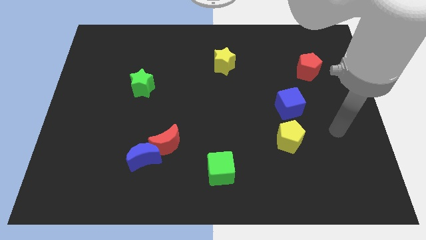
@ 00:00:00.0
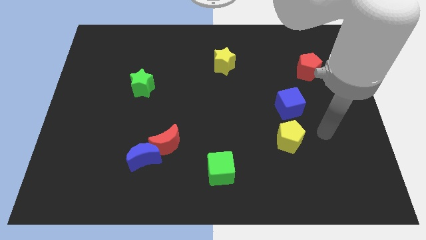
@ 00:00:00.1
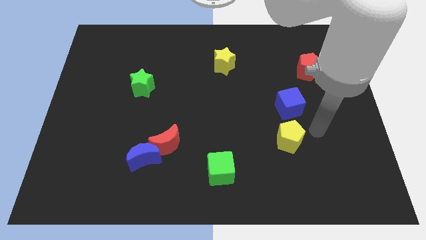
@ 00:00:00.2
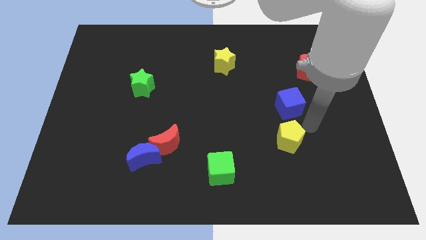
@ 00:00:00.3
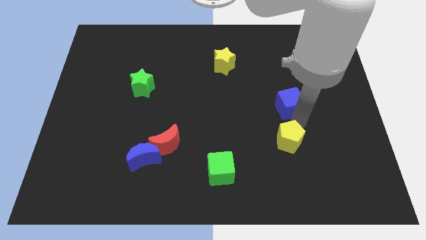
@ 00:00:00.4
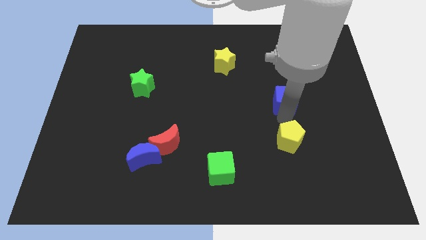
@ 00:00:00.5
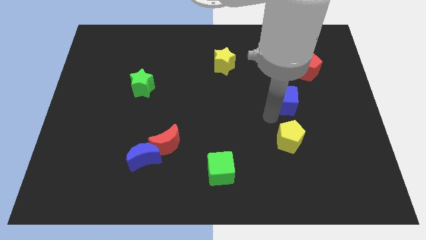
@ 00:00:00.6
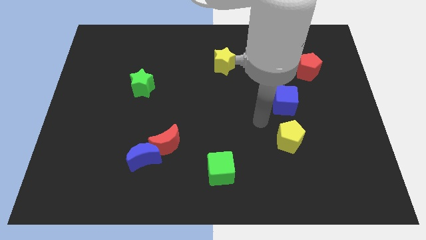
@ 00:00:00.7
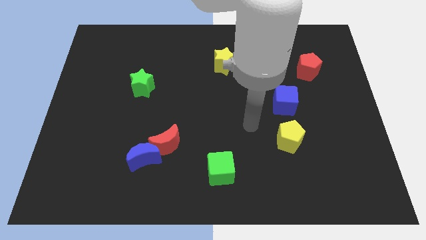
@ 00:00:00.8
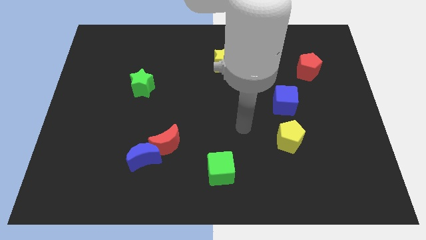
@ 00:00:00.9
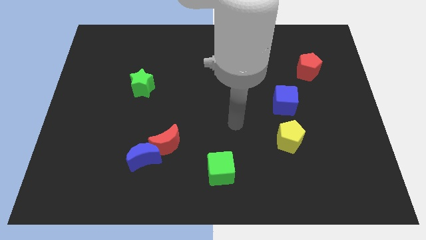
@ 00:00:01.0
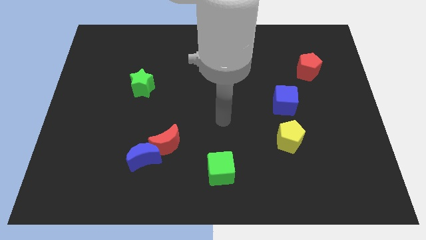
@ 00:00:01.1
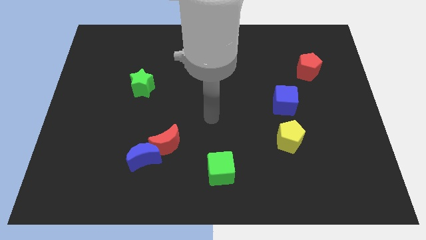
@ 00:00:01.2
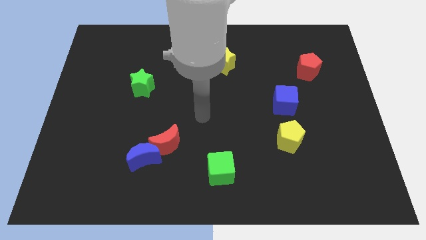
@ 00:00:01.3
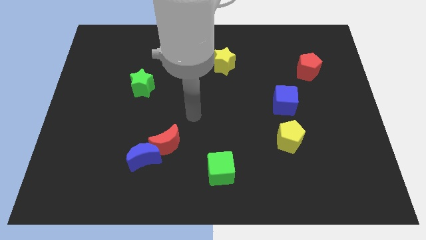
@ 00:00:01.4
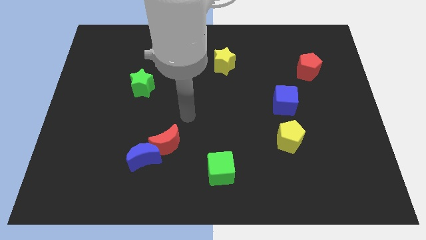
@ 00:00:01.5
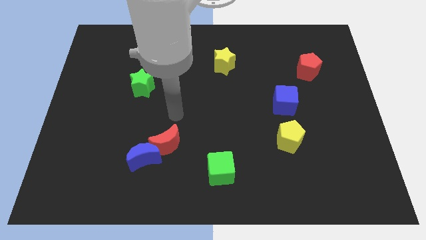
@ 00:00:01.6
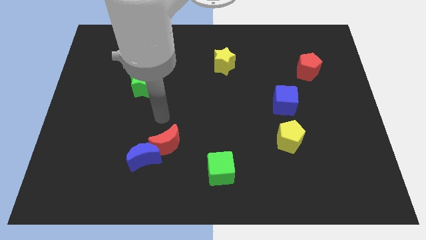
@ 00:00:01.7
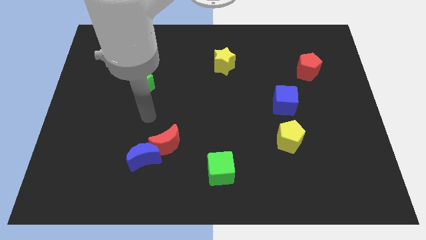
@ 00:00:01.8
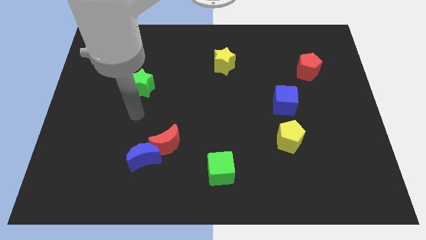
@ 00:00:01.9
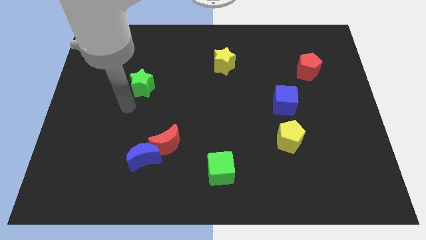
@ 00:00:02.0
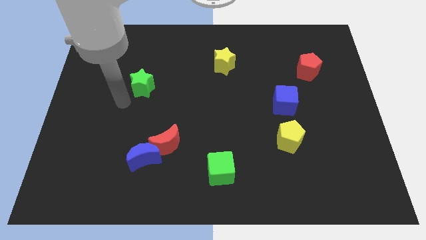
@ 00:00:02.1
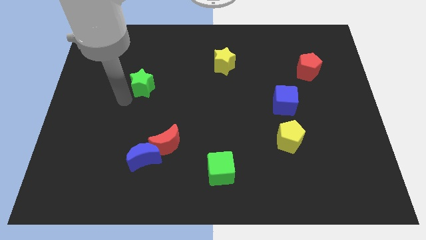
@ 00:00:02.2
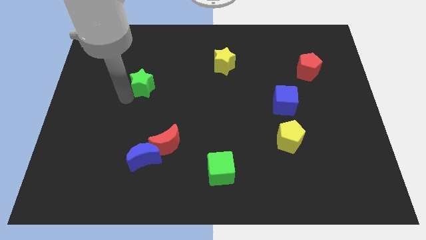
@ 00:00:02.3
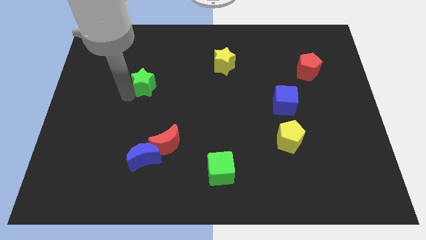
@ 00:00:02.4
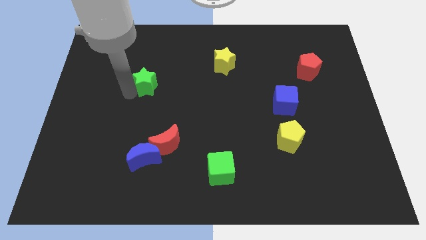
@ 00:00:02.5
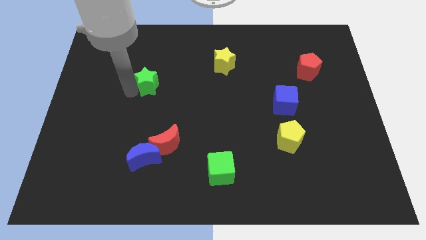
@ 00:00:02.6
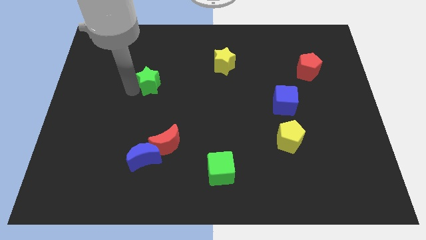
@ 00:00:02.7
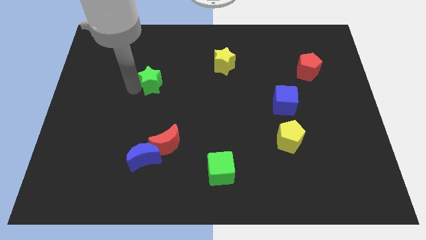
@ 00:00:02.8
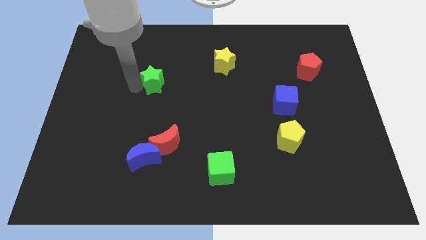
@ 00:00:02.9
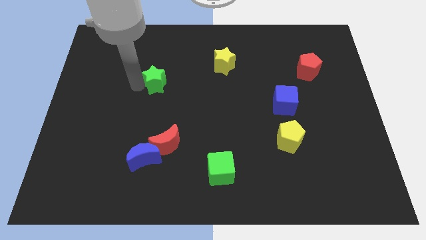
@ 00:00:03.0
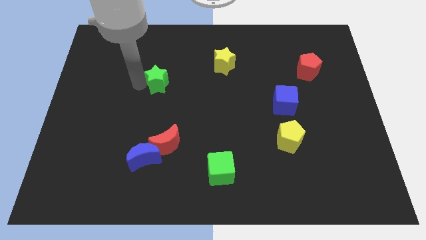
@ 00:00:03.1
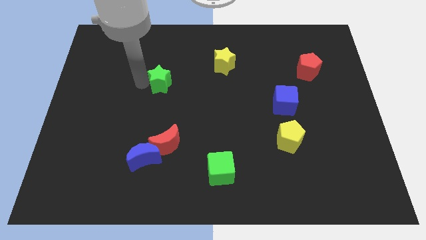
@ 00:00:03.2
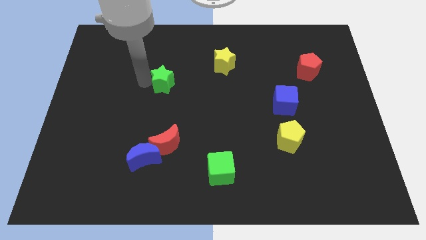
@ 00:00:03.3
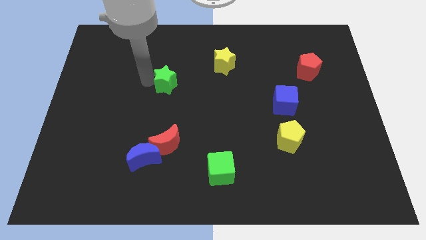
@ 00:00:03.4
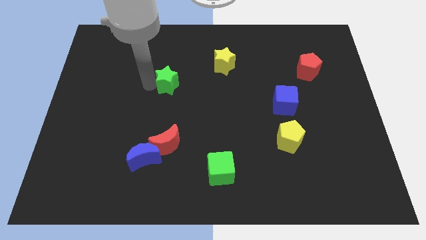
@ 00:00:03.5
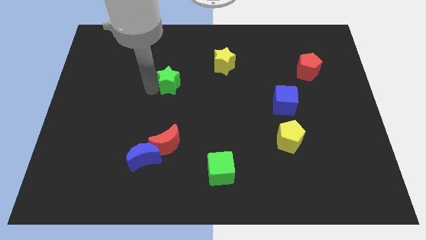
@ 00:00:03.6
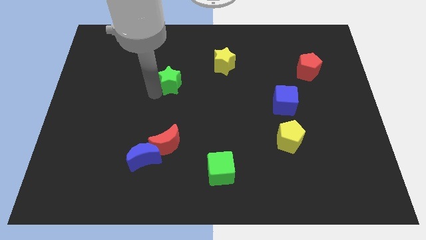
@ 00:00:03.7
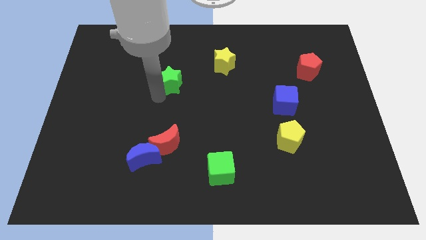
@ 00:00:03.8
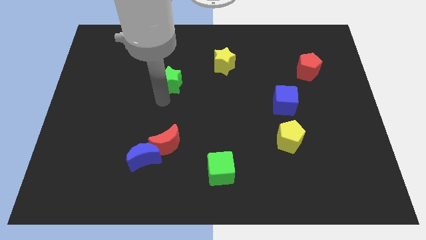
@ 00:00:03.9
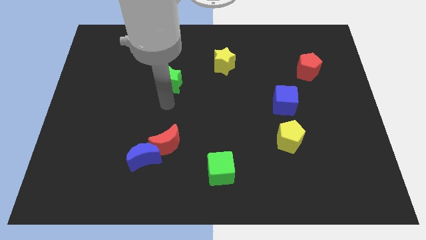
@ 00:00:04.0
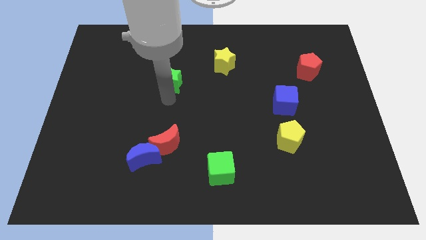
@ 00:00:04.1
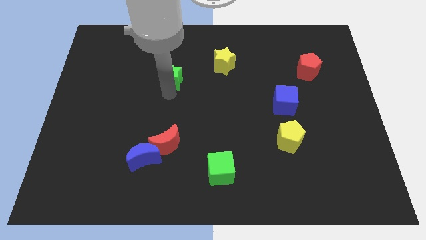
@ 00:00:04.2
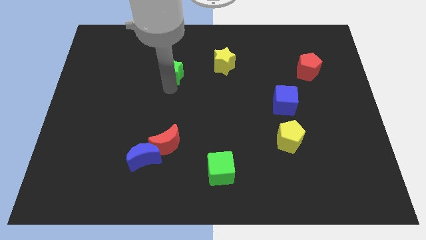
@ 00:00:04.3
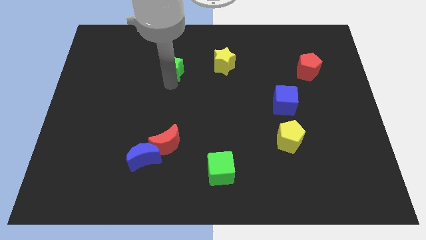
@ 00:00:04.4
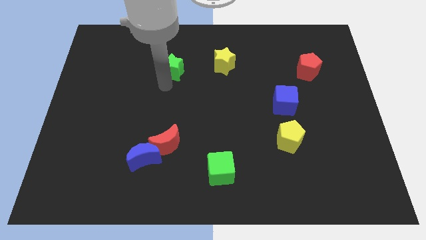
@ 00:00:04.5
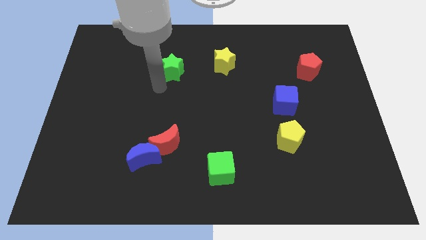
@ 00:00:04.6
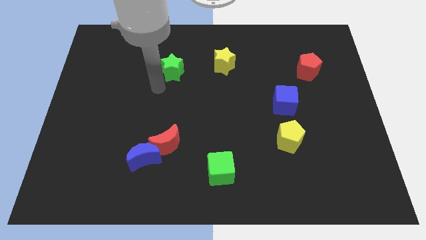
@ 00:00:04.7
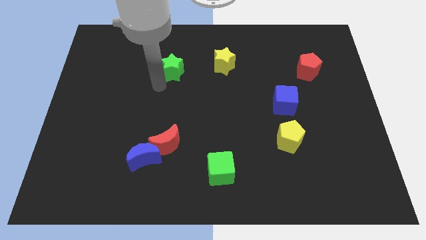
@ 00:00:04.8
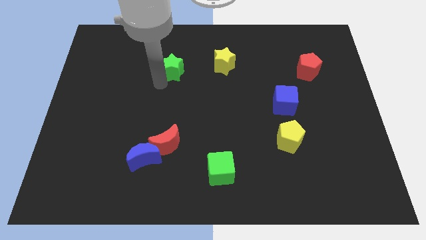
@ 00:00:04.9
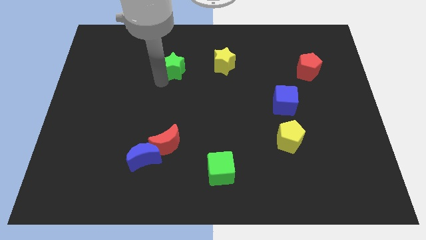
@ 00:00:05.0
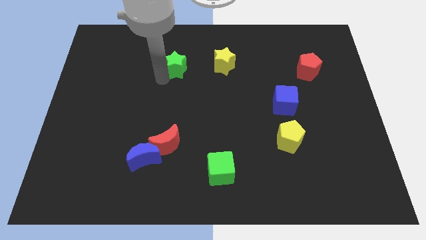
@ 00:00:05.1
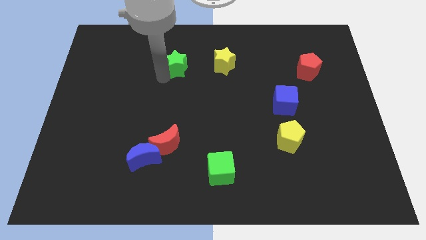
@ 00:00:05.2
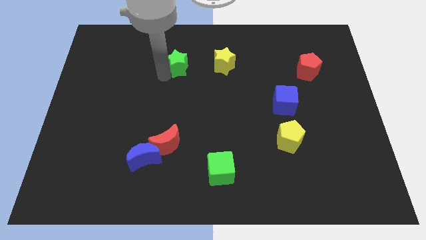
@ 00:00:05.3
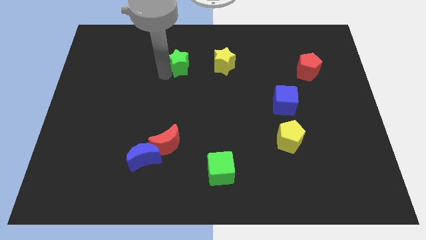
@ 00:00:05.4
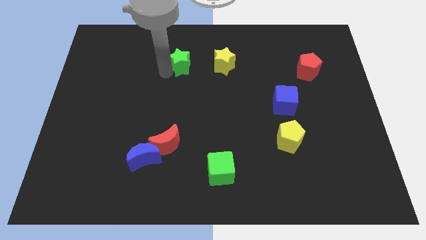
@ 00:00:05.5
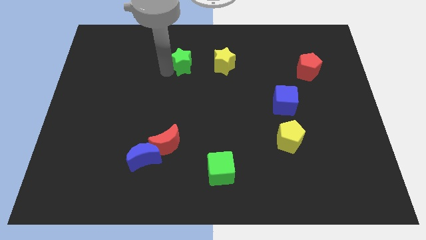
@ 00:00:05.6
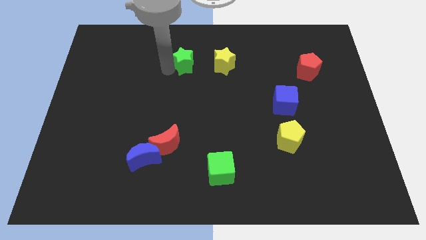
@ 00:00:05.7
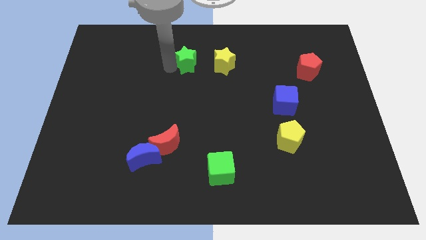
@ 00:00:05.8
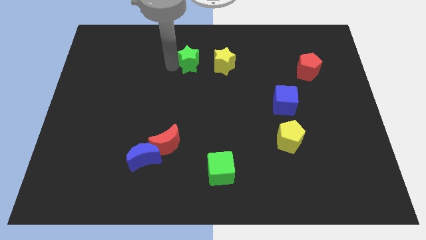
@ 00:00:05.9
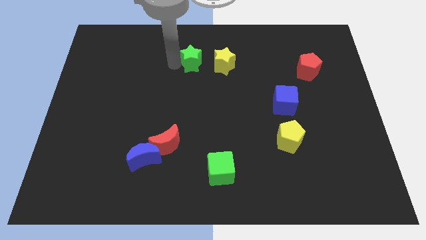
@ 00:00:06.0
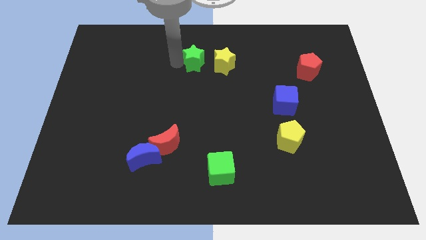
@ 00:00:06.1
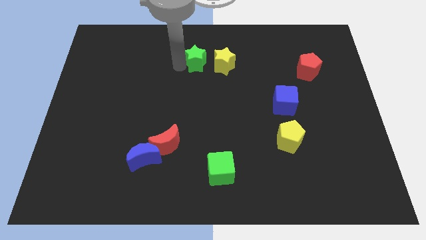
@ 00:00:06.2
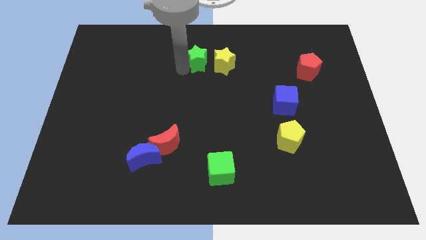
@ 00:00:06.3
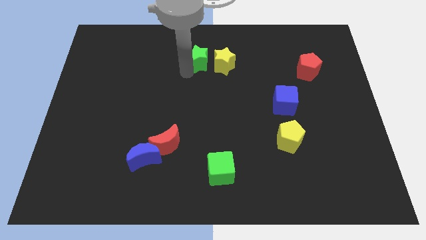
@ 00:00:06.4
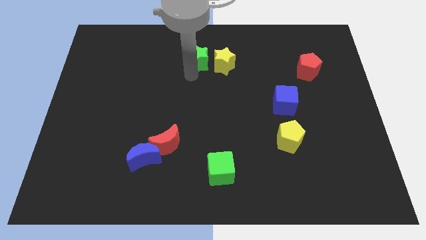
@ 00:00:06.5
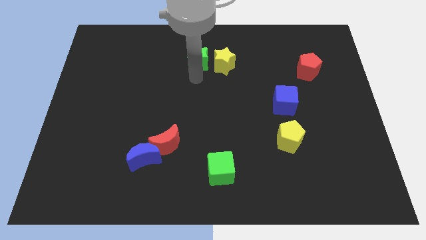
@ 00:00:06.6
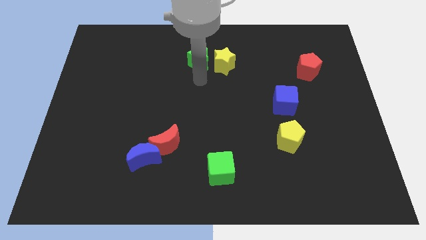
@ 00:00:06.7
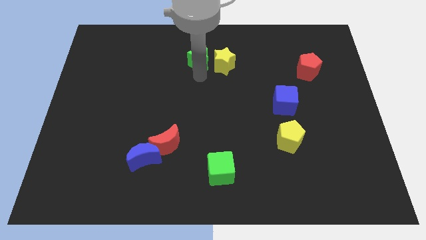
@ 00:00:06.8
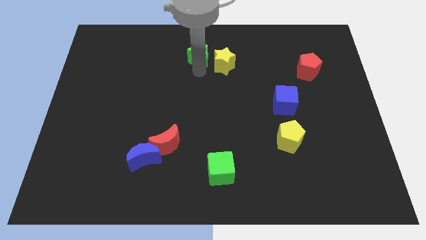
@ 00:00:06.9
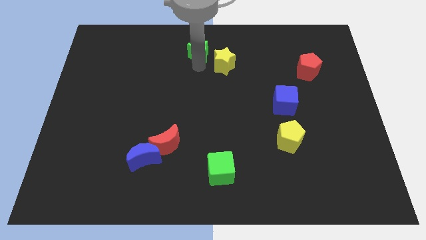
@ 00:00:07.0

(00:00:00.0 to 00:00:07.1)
move the green star to the top side
